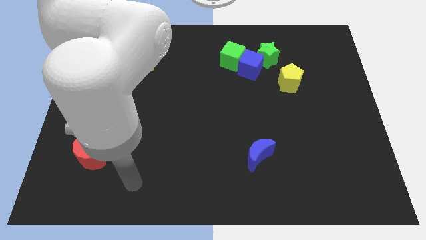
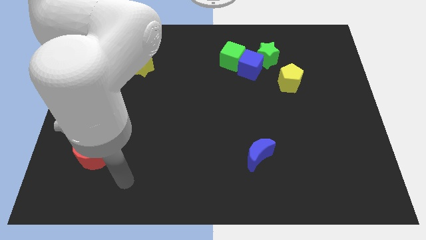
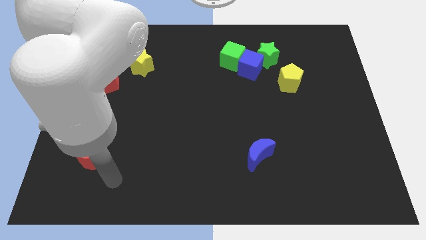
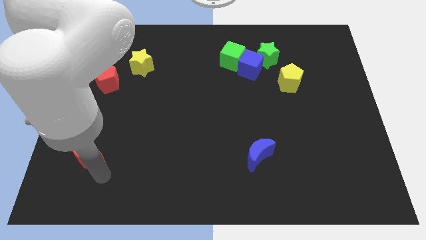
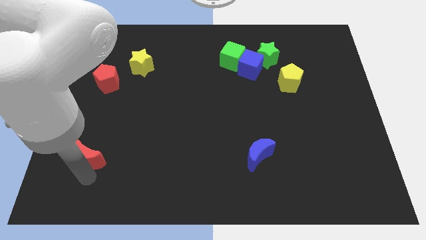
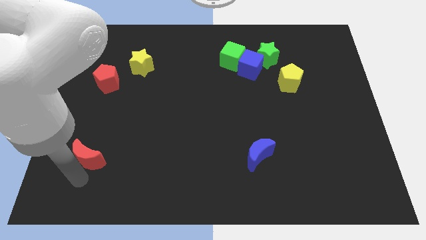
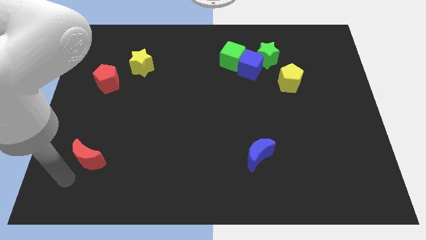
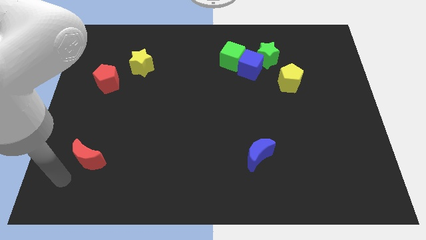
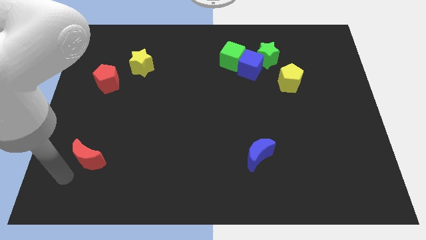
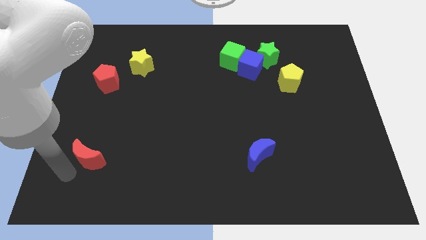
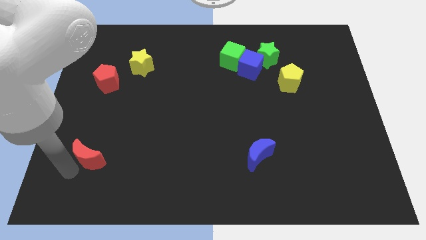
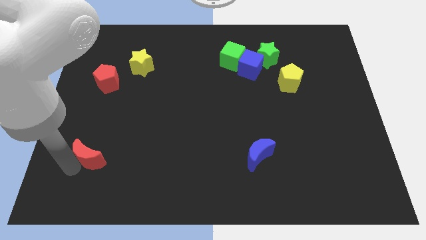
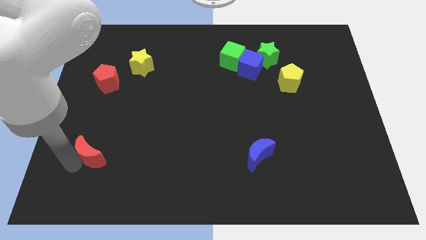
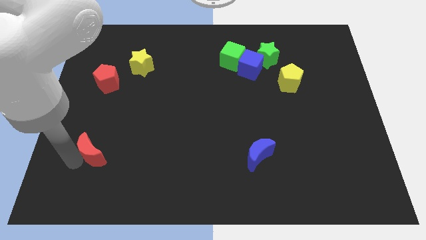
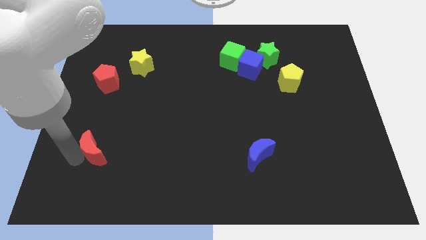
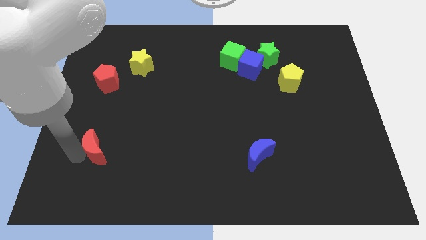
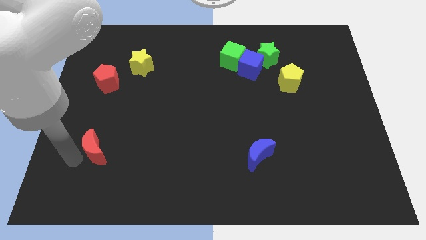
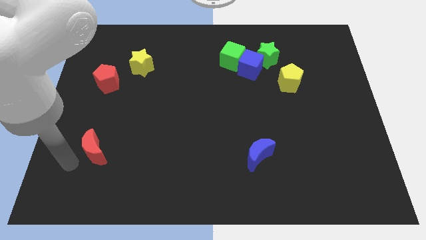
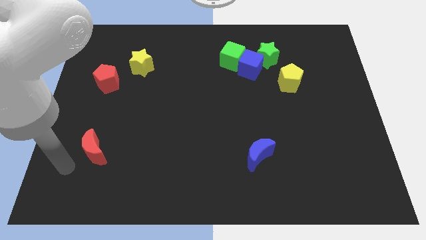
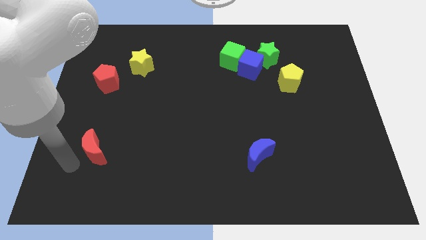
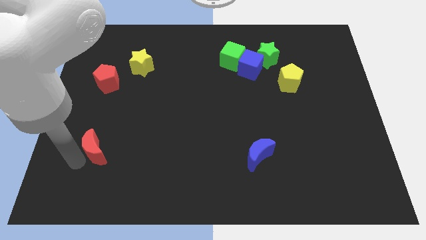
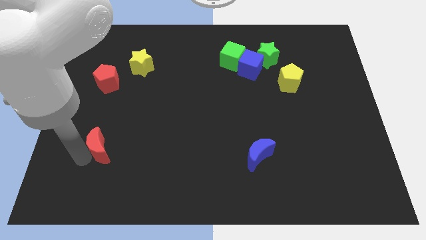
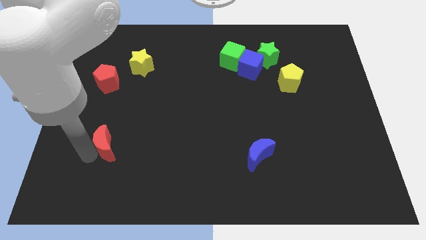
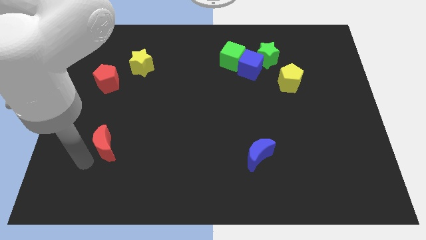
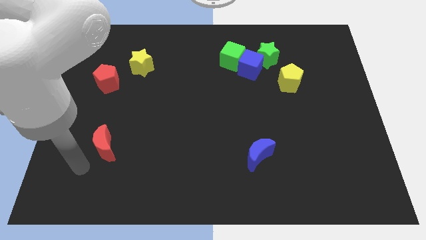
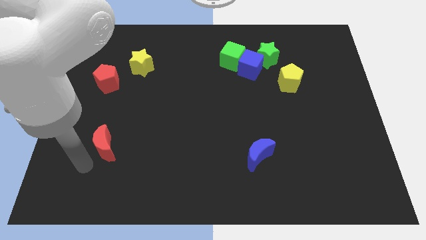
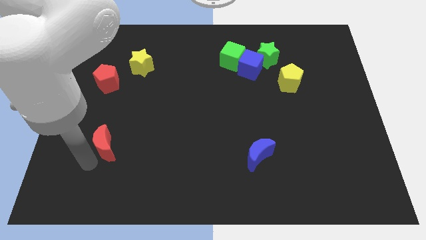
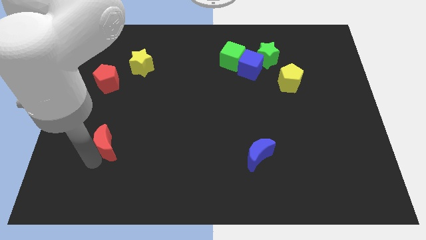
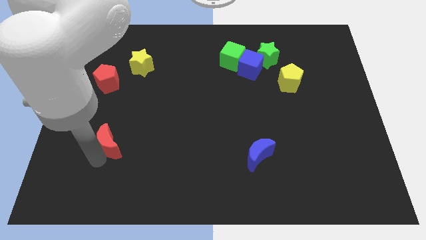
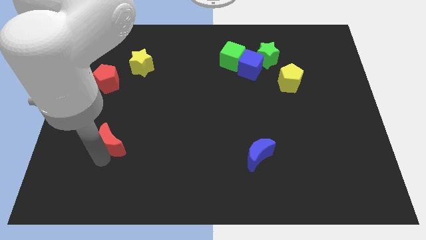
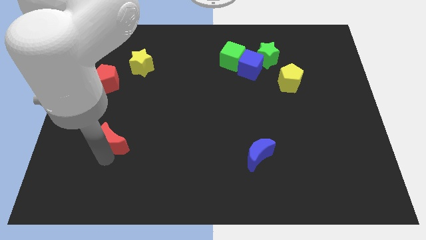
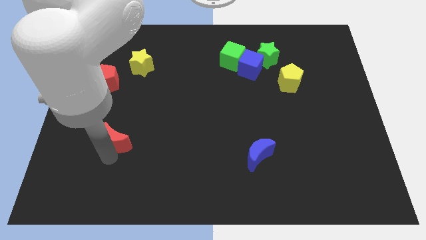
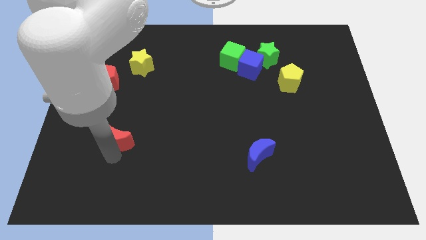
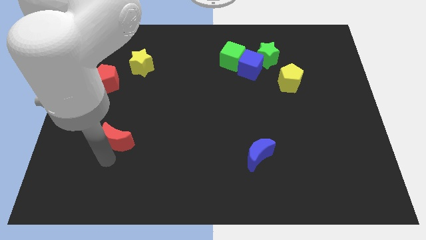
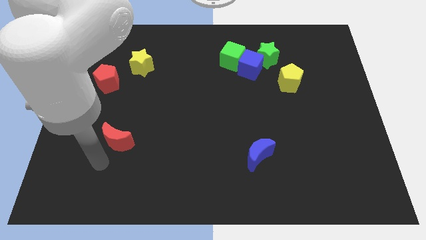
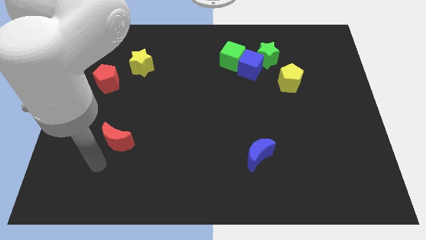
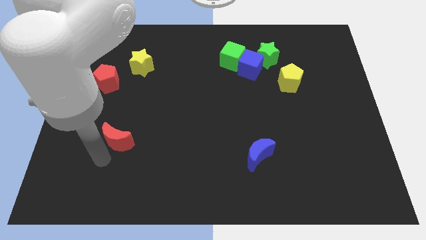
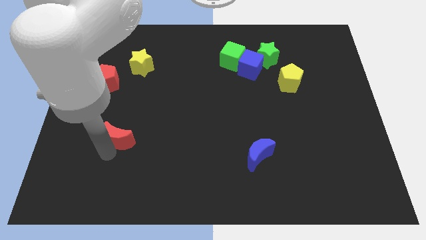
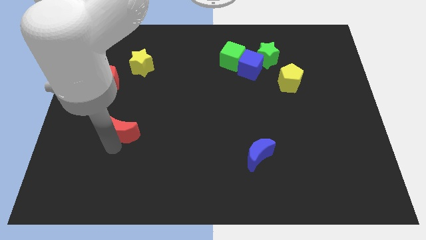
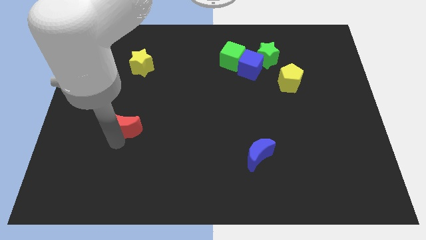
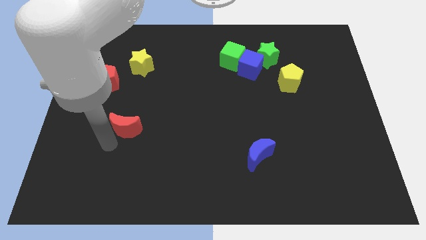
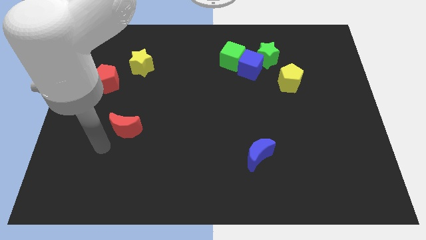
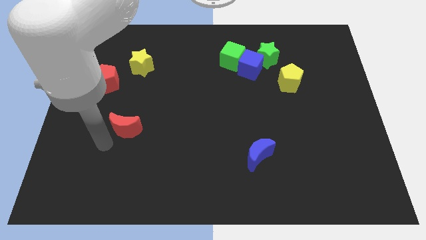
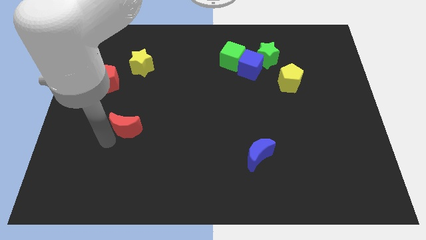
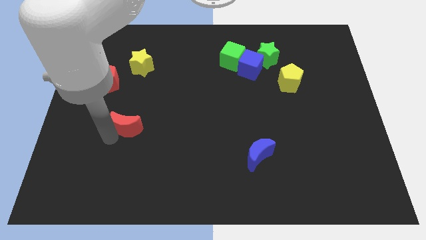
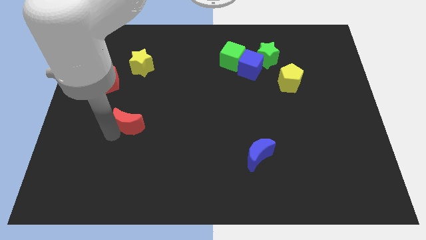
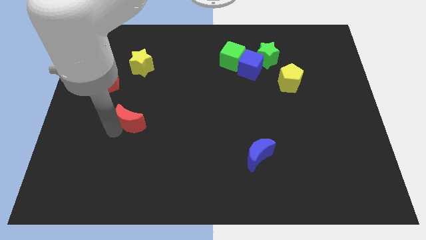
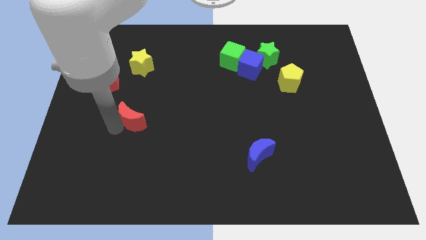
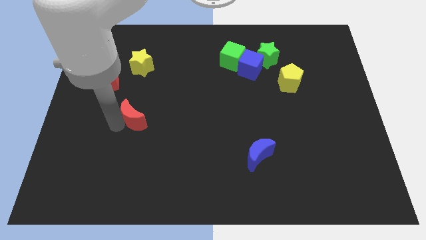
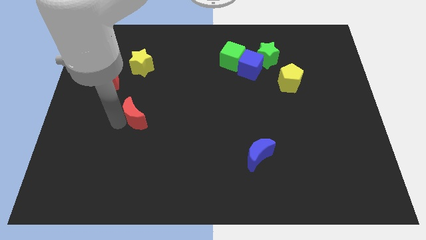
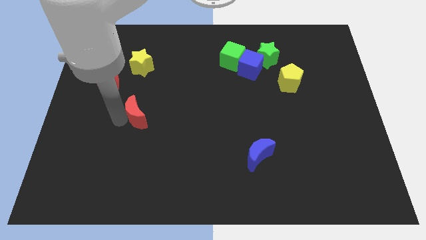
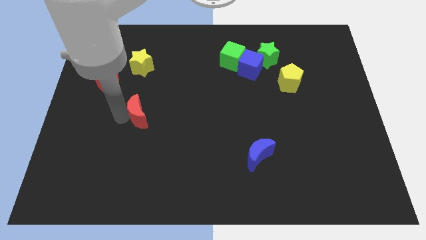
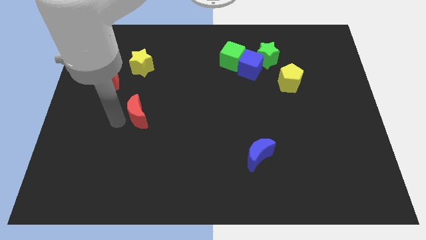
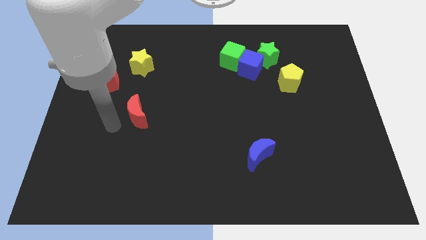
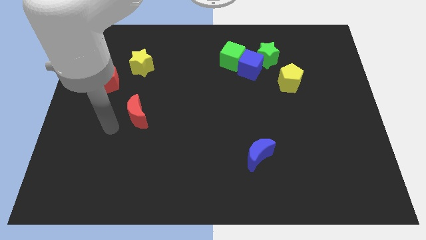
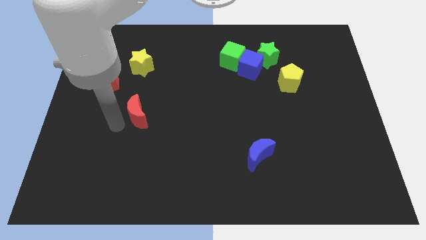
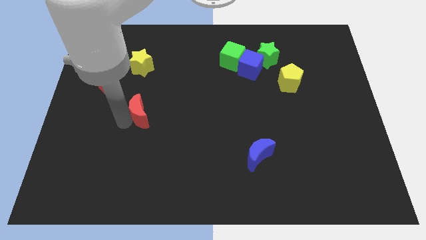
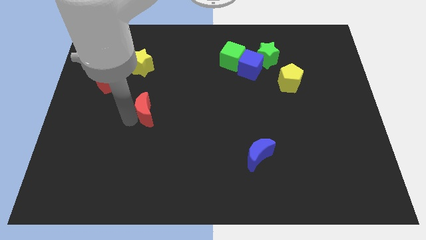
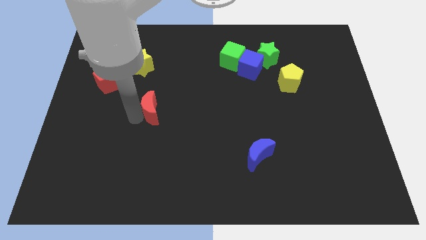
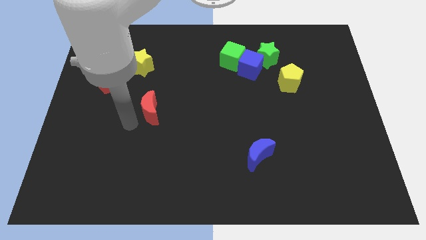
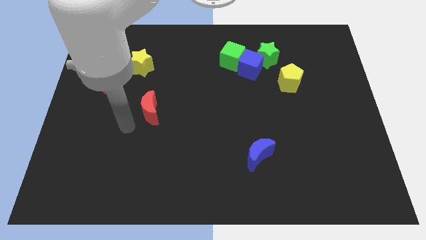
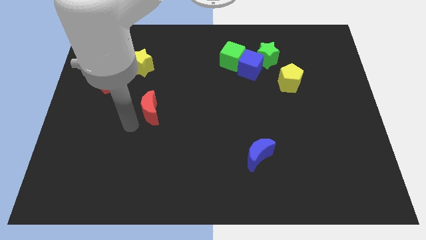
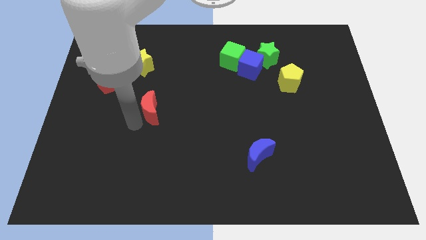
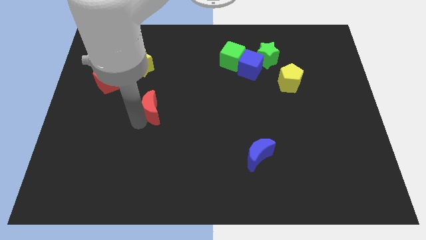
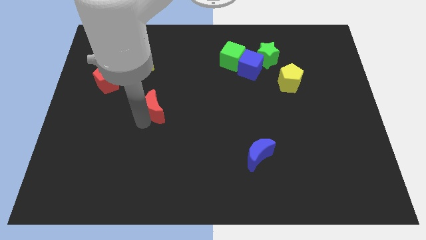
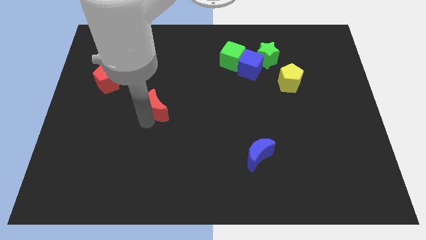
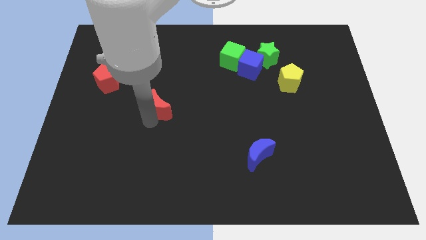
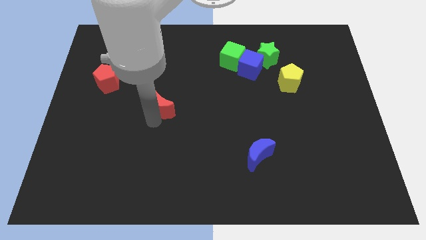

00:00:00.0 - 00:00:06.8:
push the red moon up and then to the right

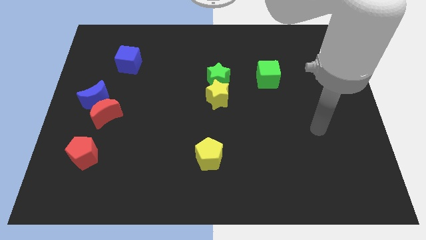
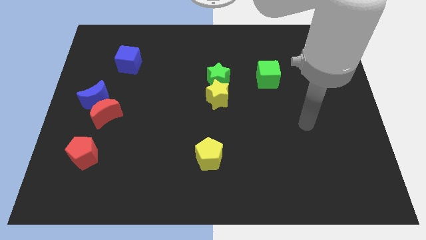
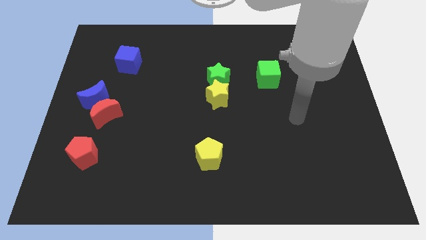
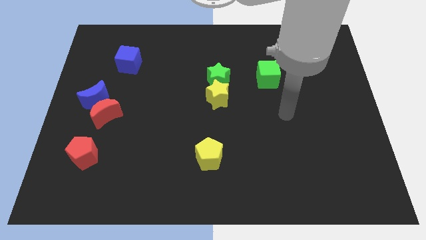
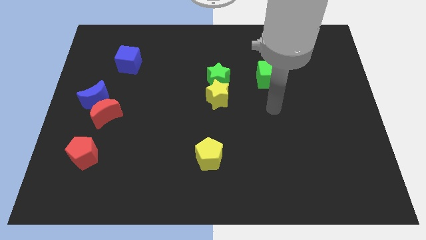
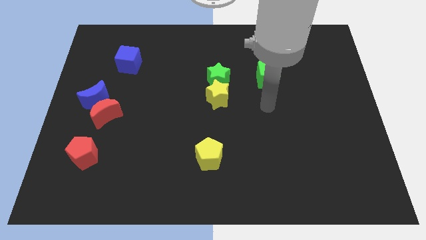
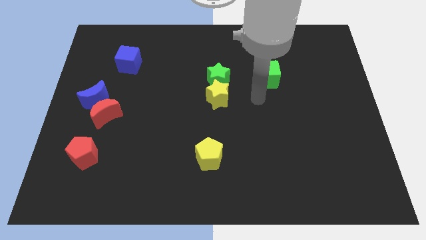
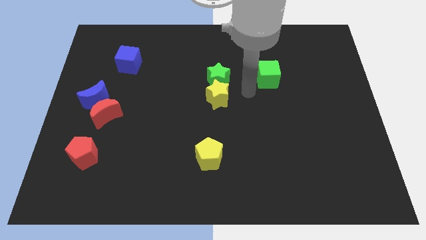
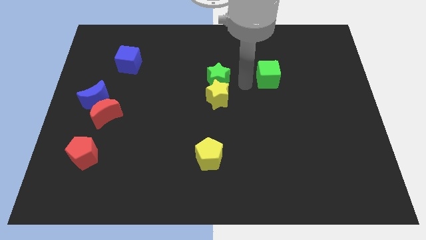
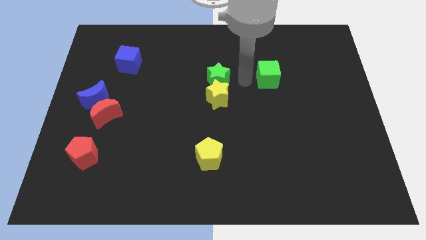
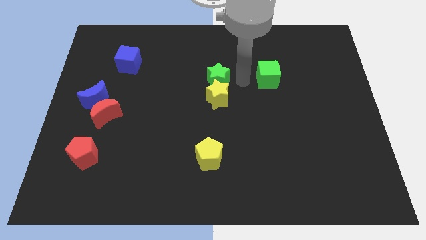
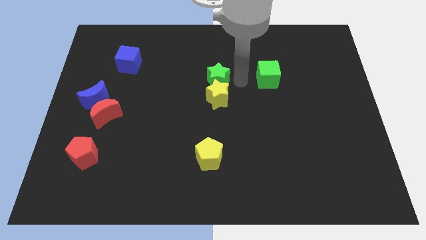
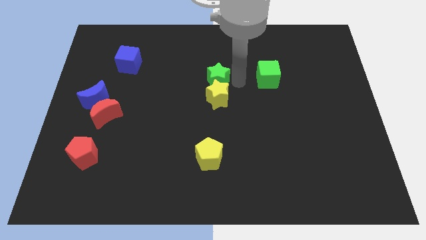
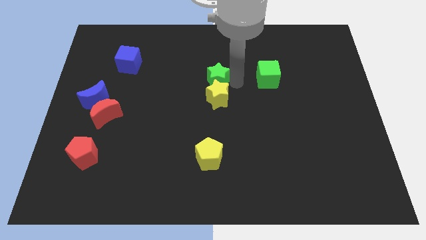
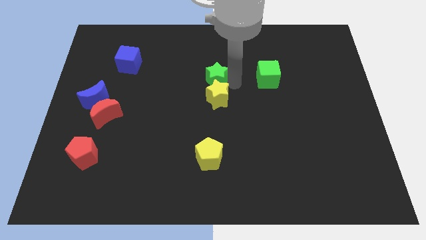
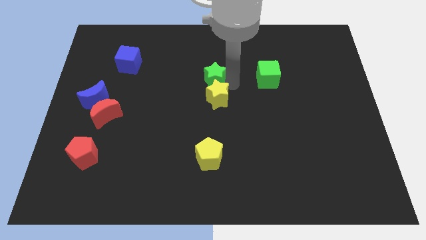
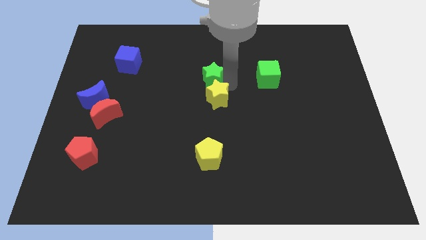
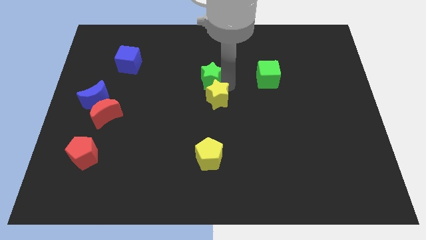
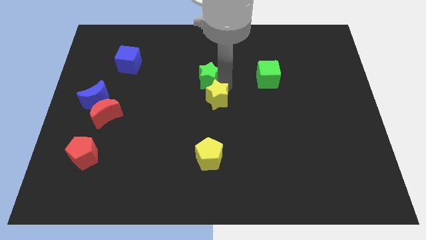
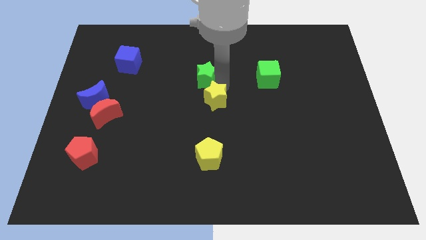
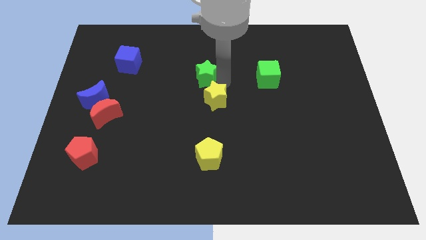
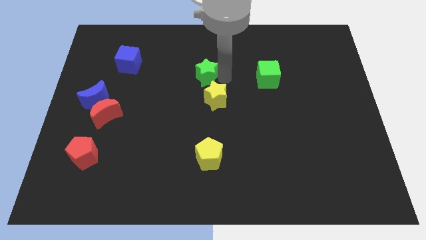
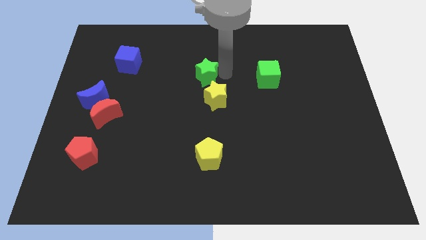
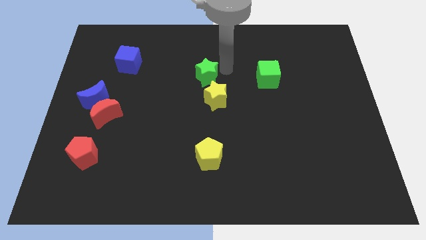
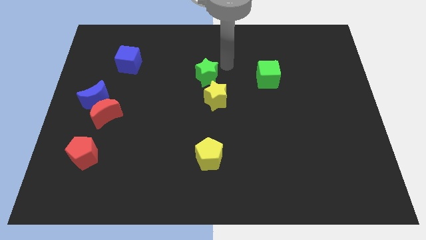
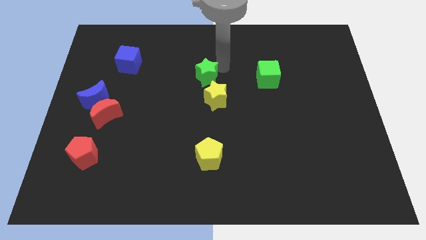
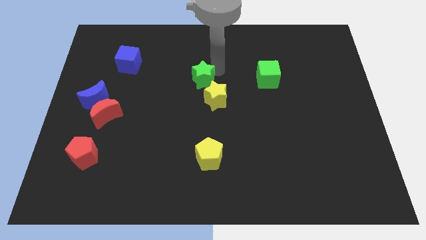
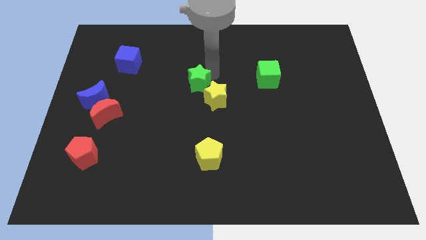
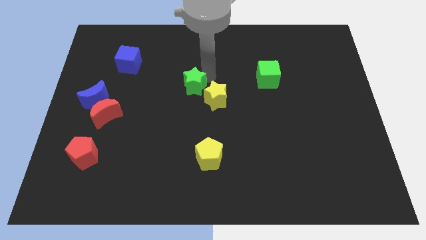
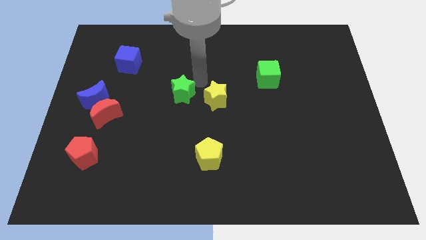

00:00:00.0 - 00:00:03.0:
slightly slide the green star diagonally downwards and to the left
